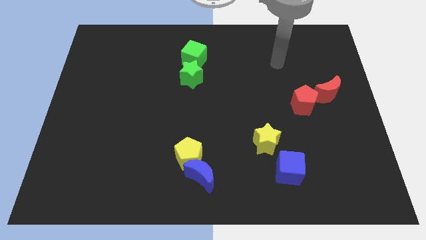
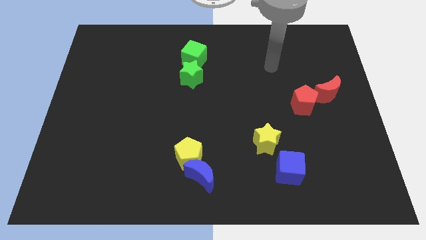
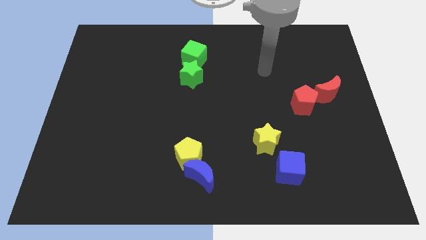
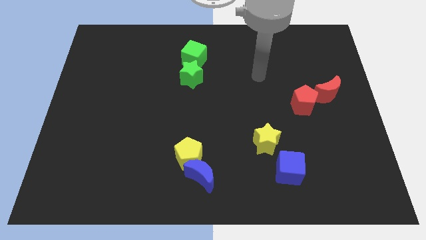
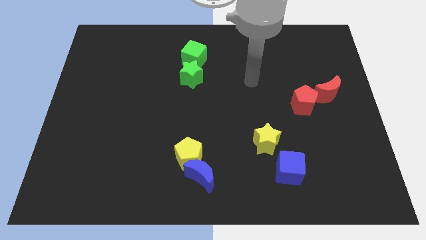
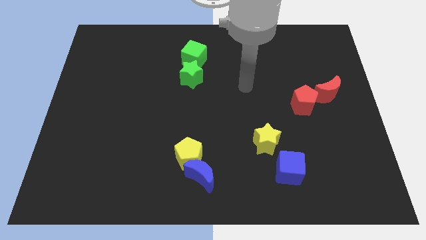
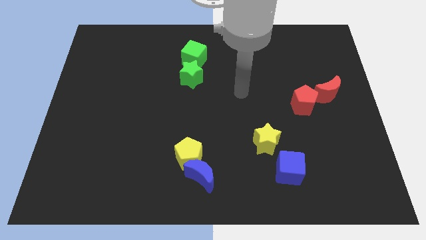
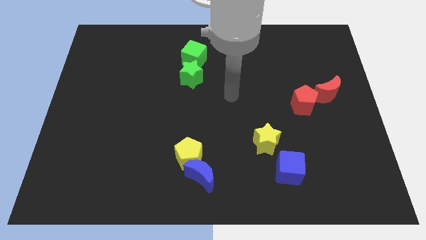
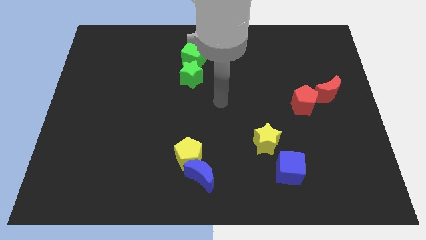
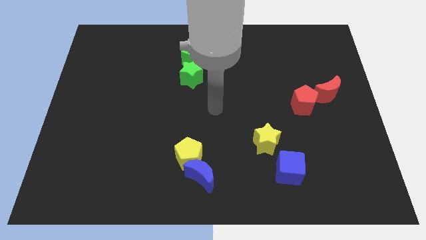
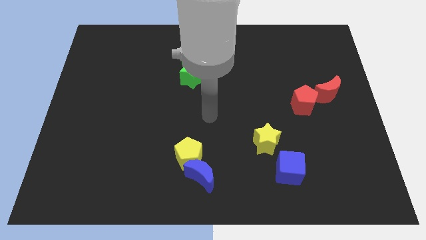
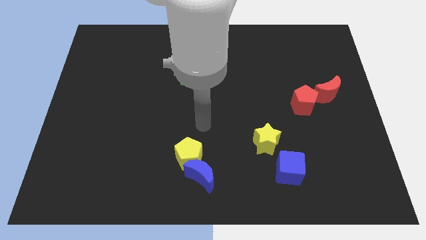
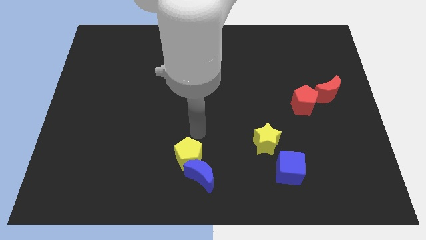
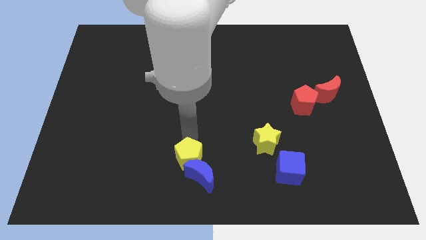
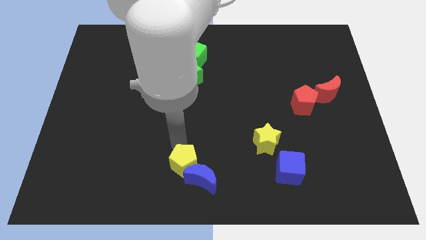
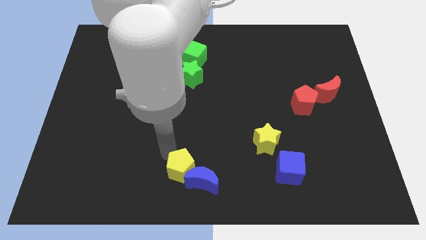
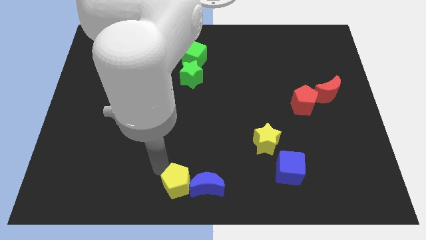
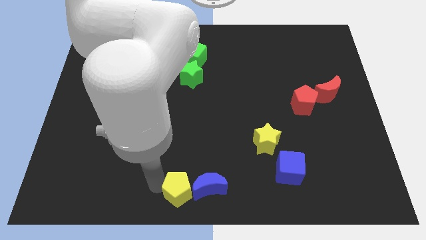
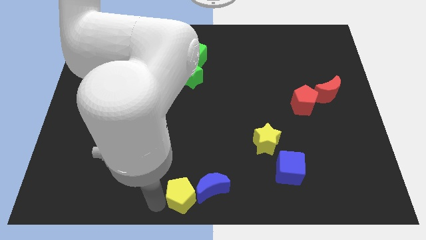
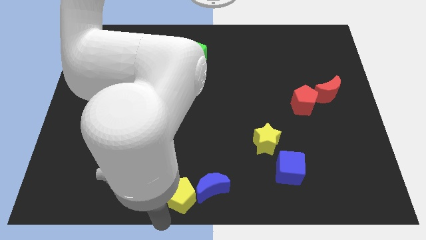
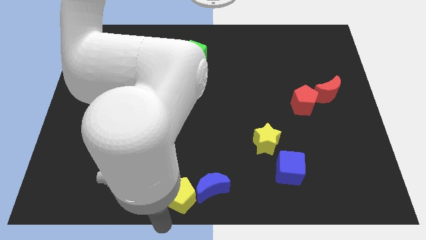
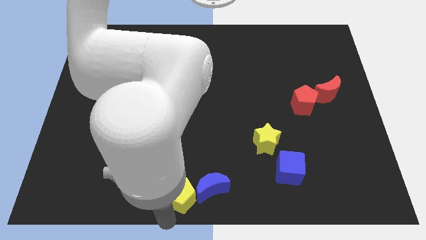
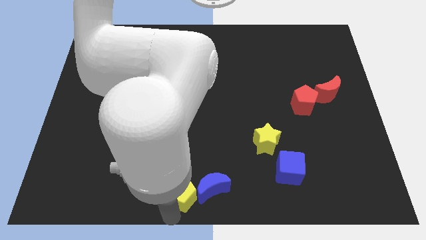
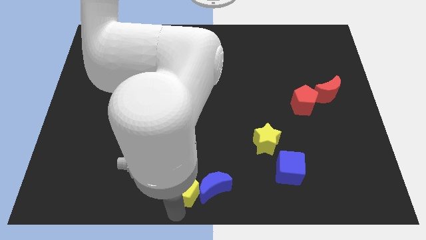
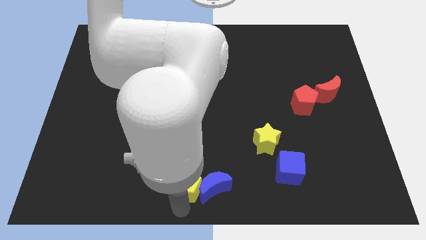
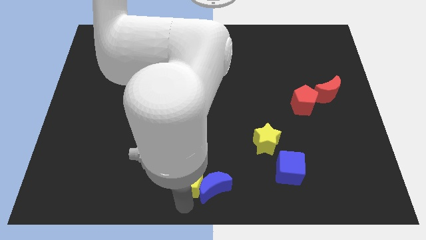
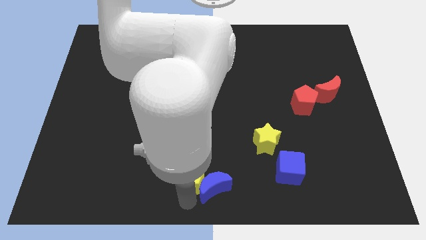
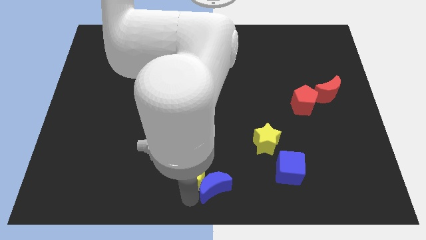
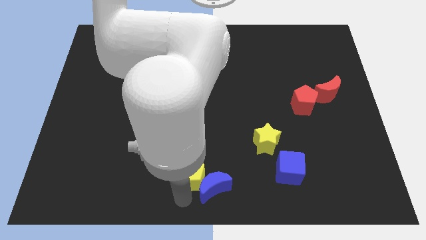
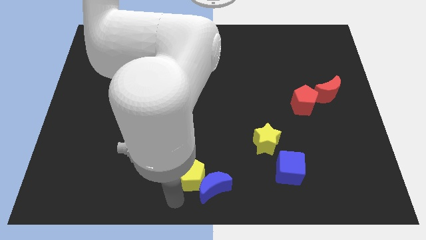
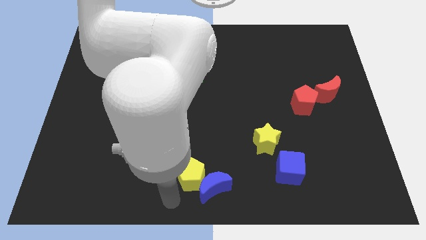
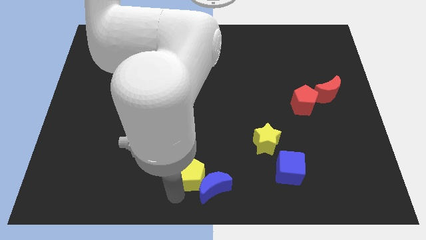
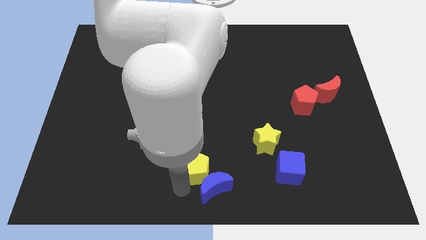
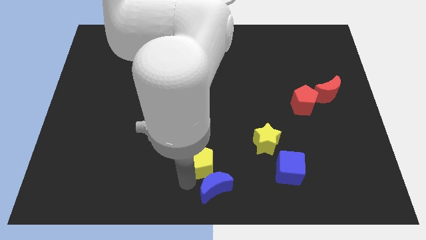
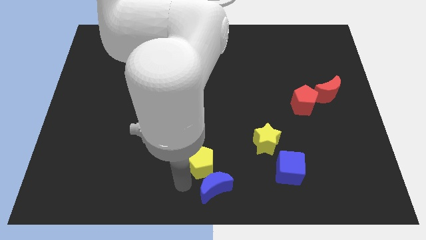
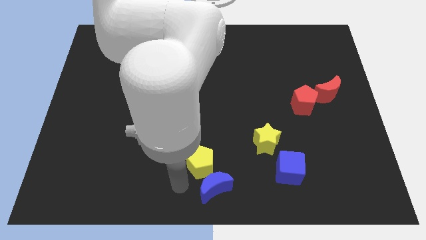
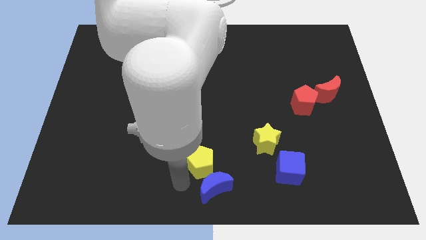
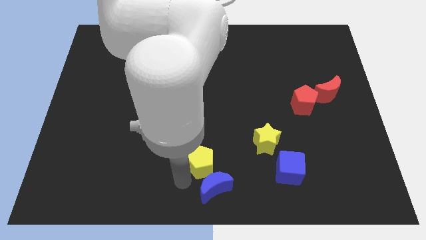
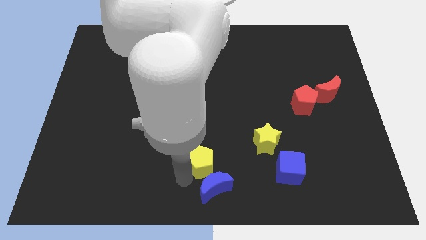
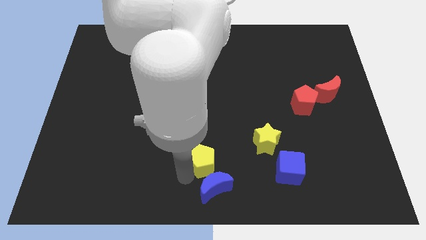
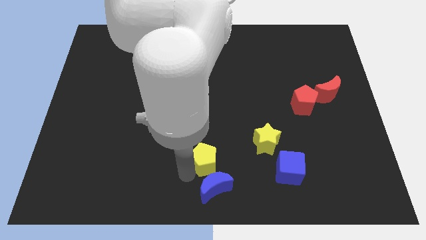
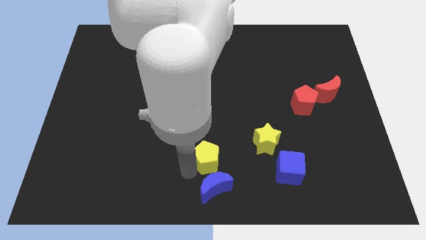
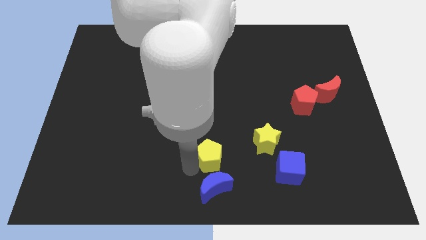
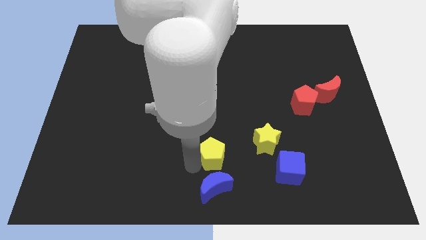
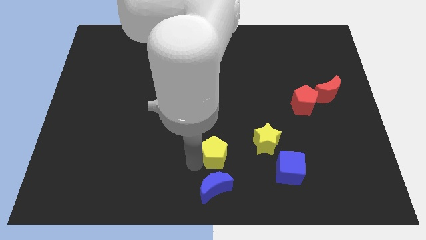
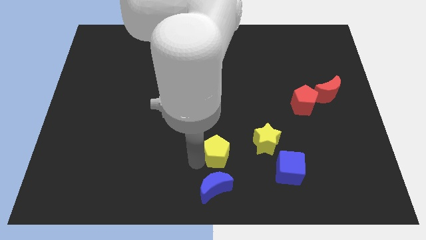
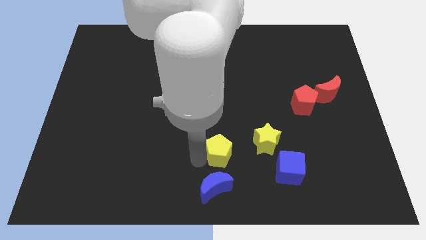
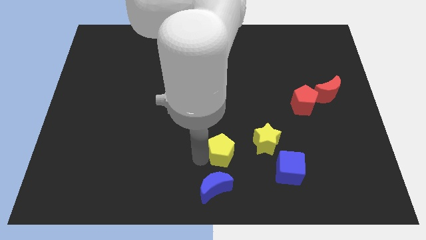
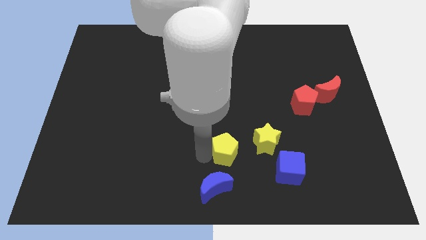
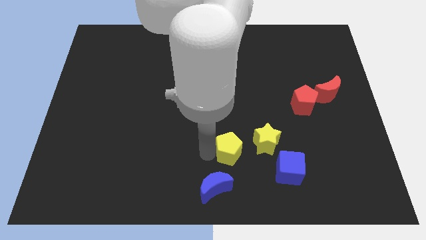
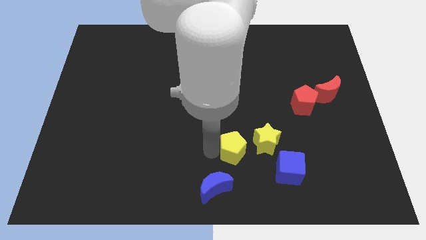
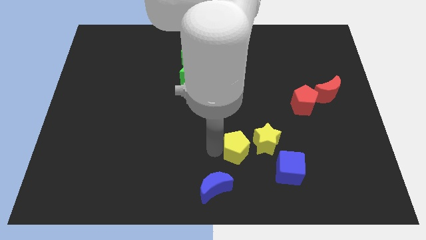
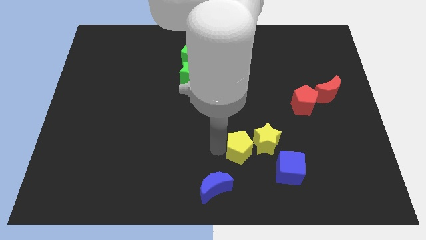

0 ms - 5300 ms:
push the yellow pentagon next to the yellow star

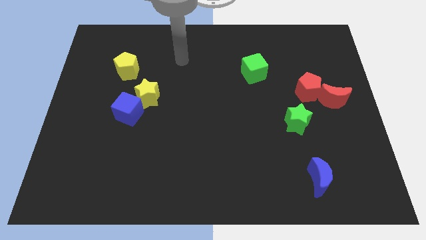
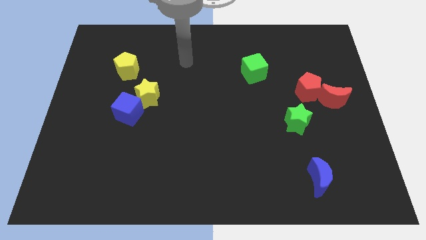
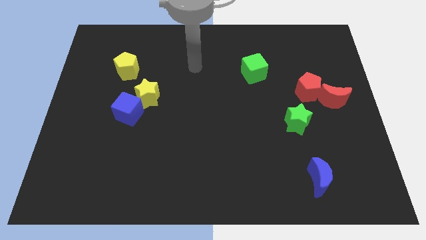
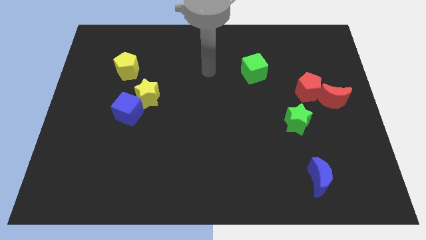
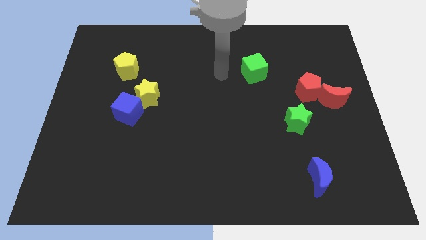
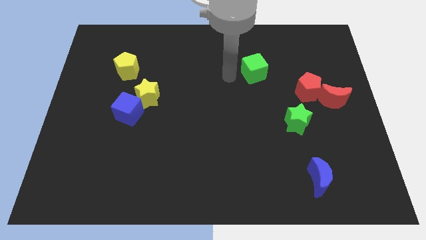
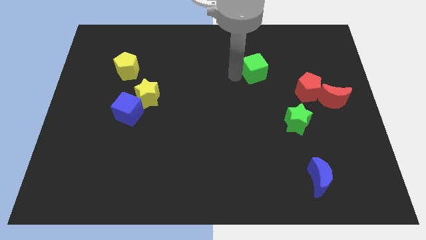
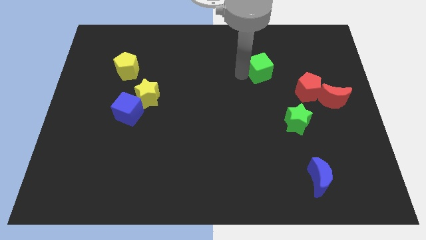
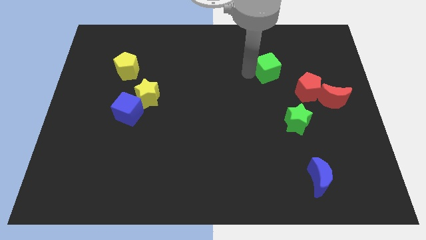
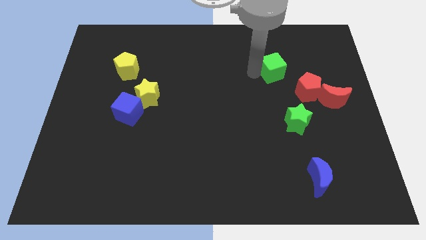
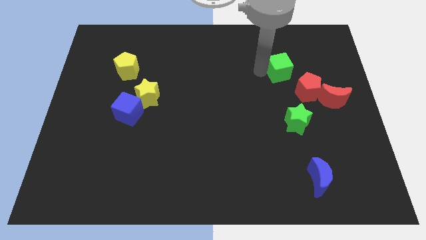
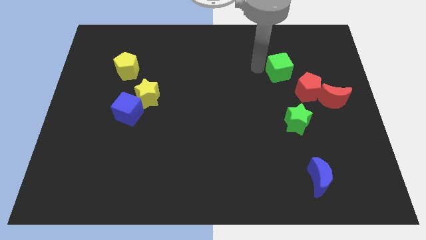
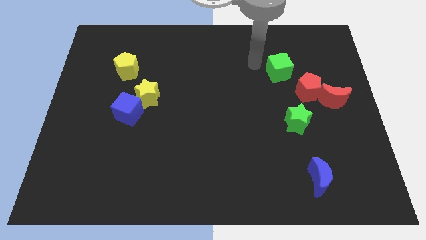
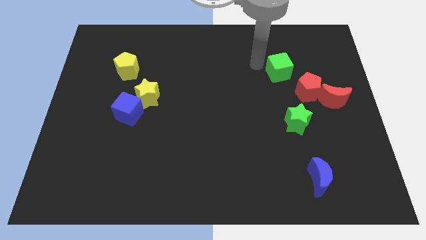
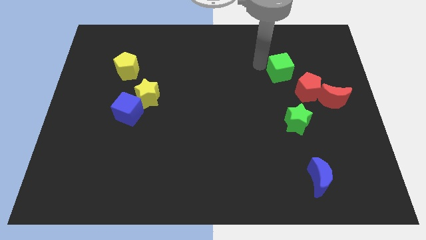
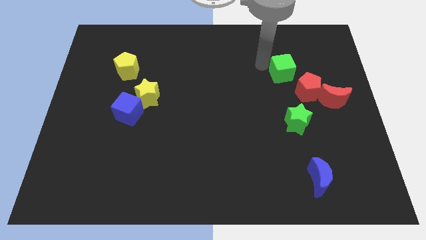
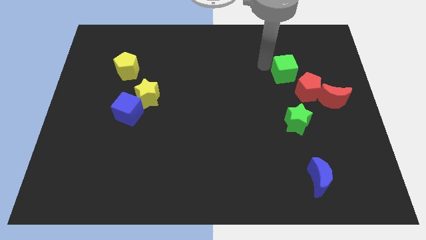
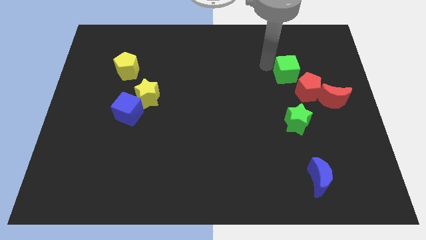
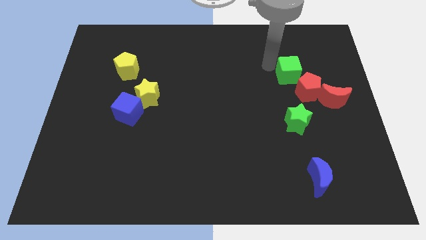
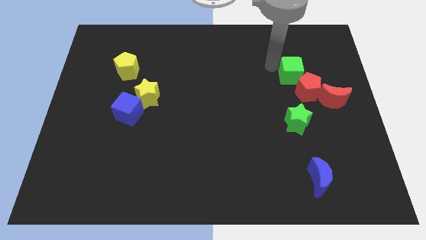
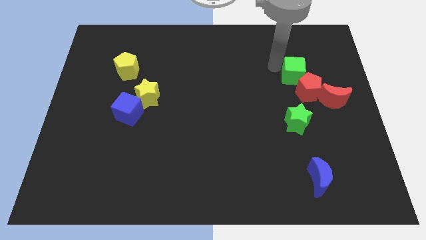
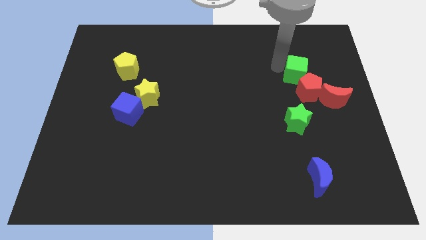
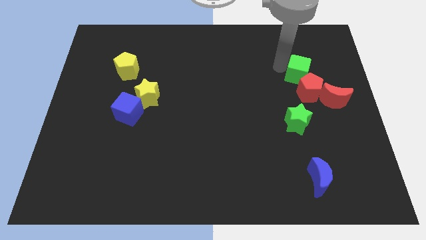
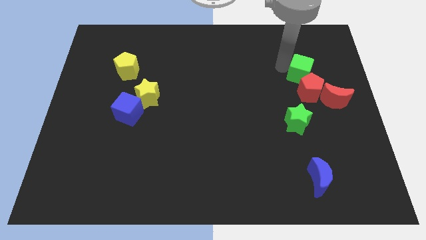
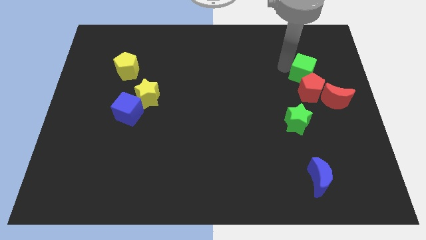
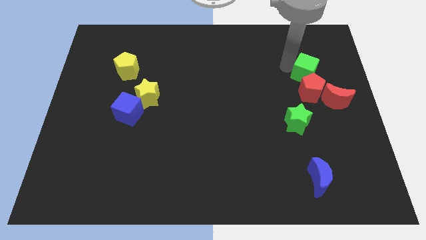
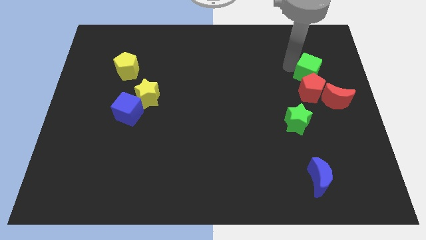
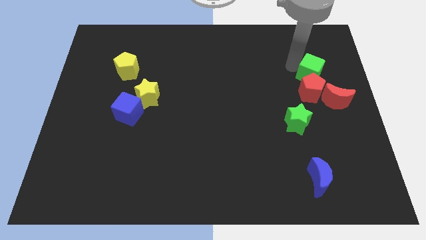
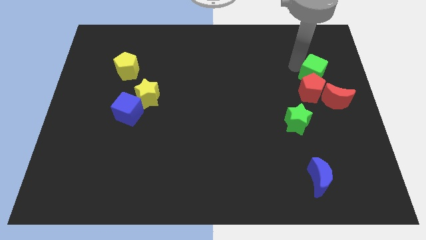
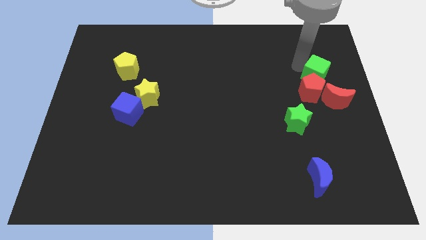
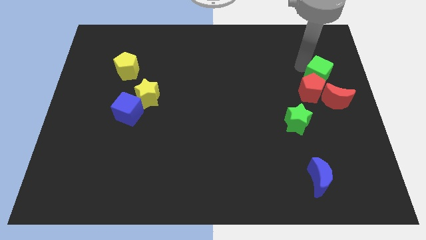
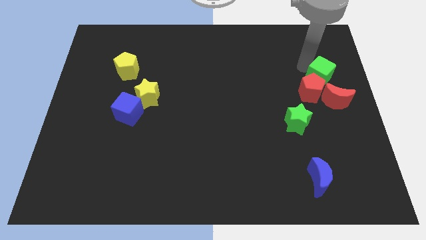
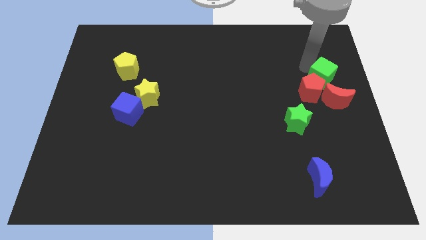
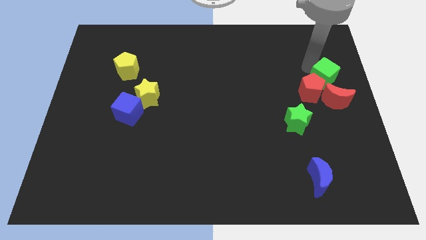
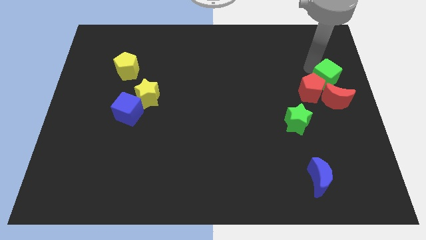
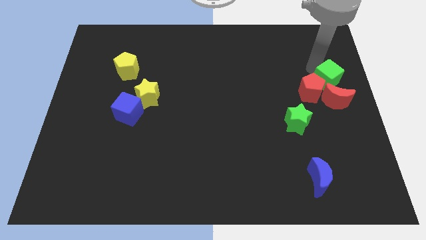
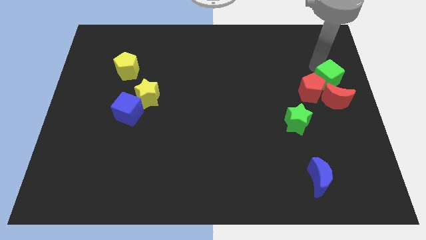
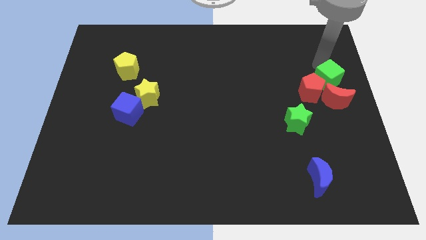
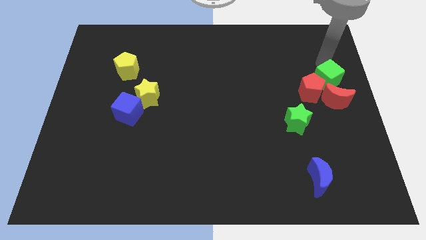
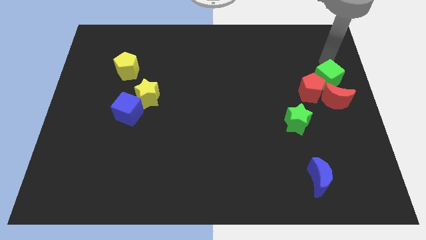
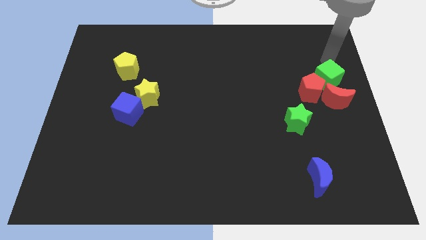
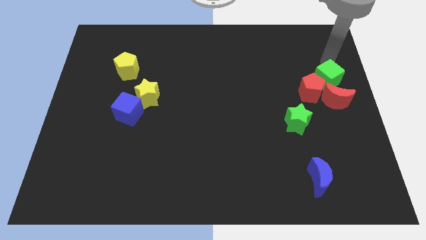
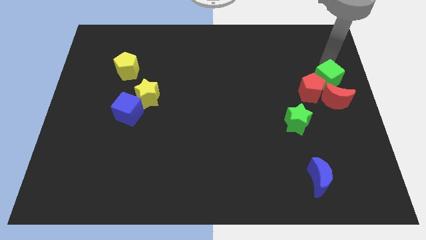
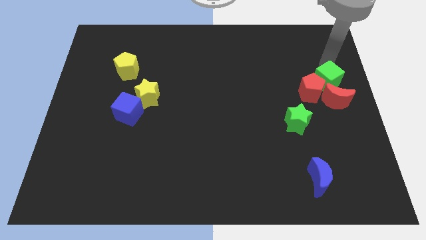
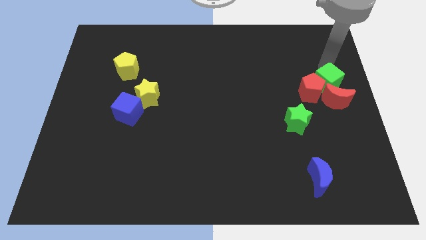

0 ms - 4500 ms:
push the green cube towards the red moon
